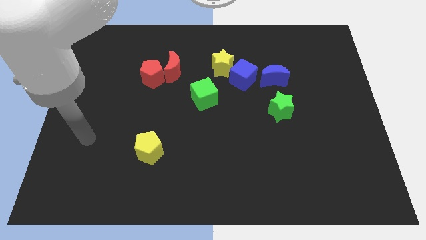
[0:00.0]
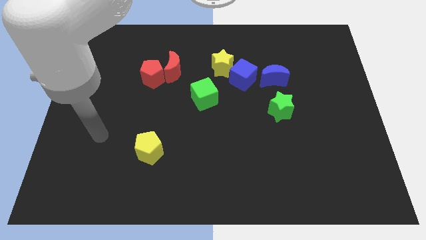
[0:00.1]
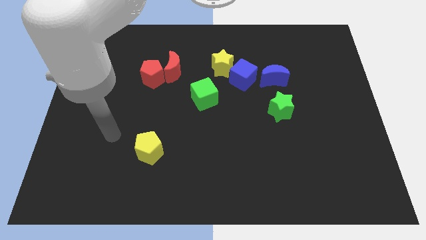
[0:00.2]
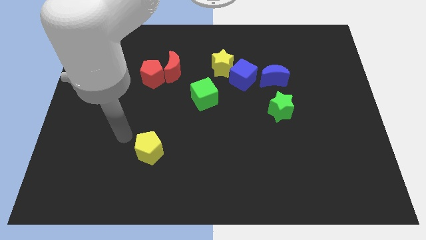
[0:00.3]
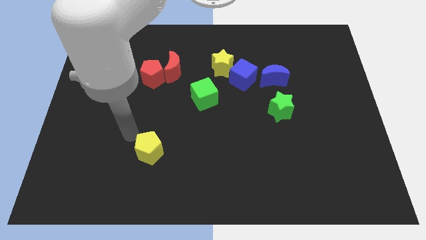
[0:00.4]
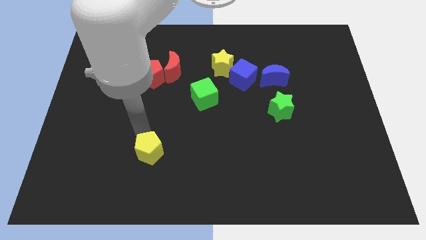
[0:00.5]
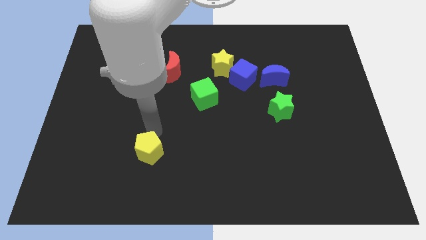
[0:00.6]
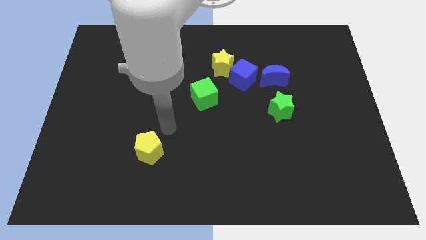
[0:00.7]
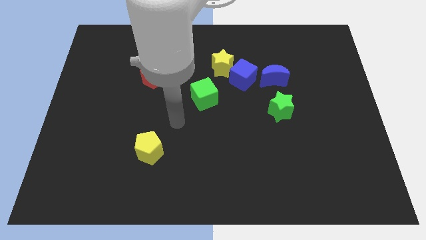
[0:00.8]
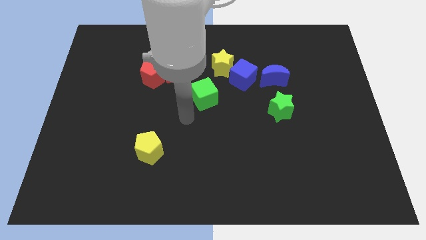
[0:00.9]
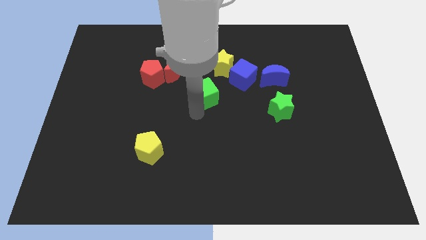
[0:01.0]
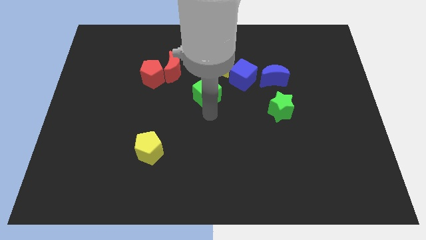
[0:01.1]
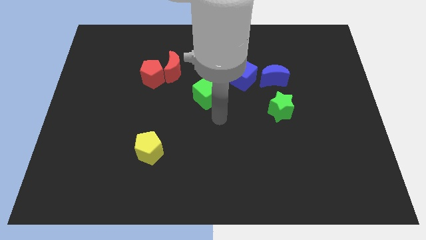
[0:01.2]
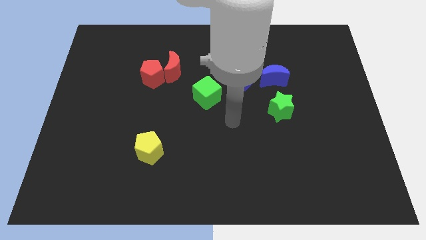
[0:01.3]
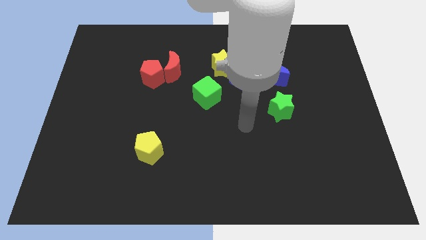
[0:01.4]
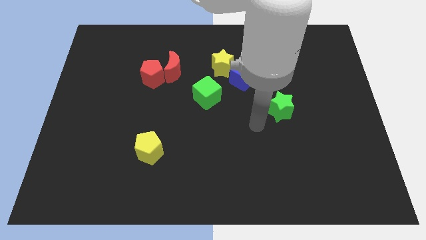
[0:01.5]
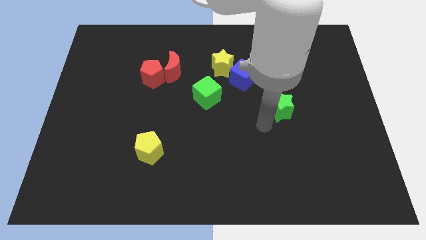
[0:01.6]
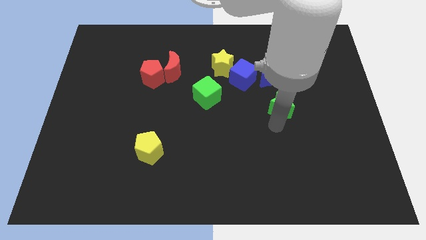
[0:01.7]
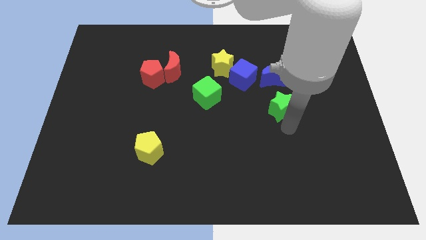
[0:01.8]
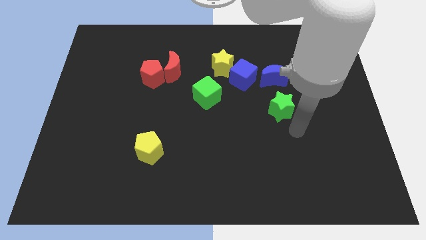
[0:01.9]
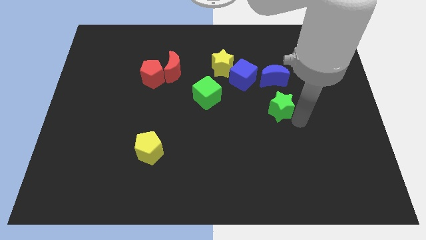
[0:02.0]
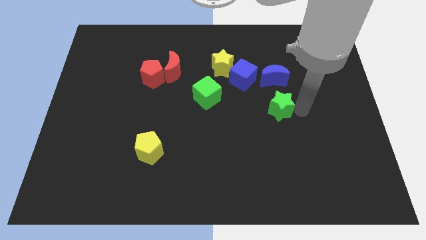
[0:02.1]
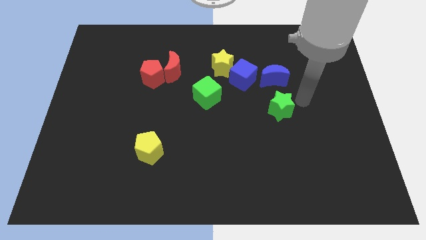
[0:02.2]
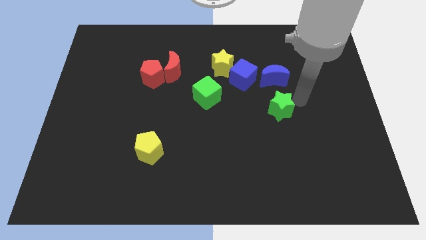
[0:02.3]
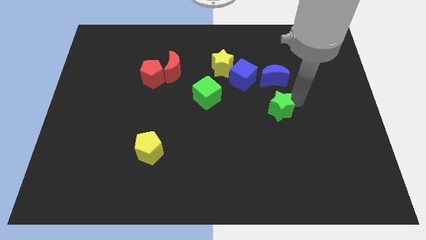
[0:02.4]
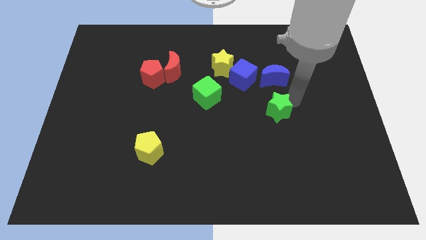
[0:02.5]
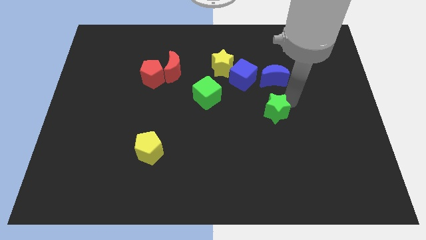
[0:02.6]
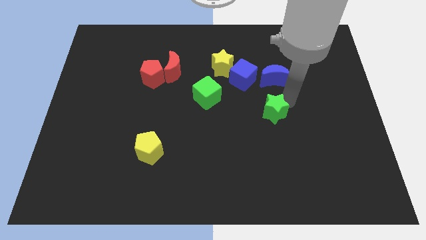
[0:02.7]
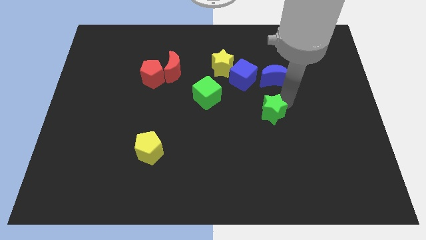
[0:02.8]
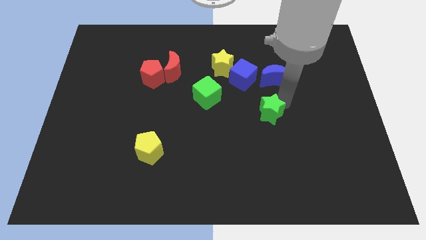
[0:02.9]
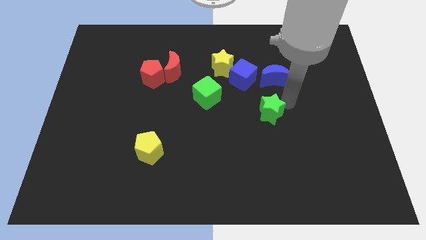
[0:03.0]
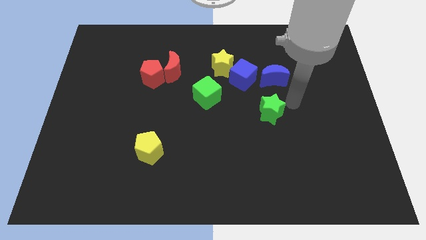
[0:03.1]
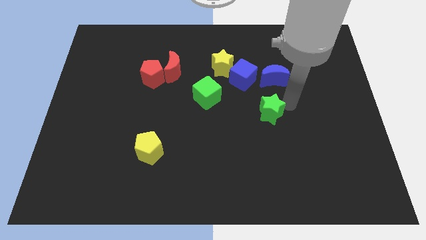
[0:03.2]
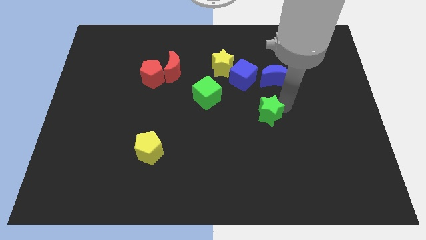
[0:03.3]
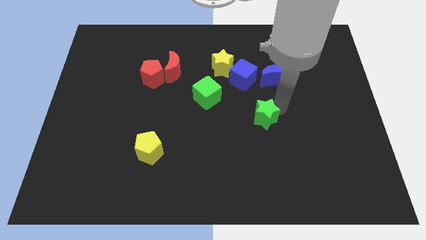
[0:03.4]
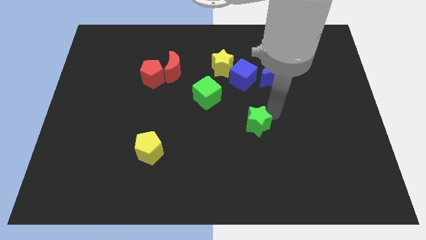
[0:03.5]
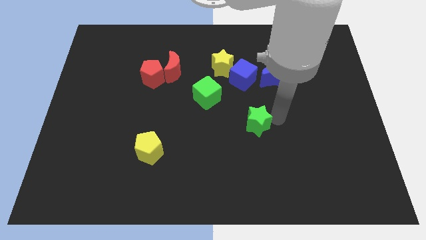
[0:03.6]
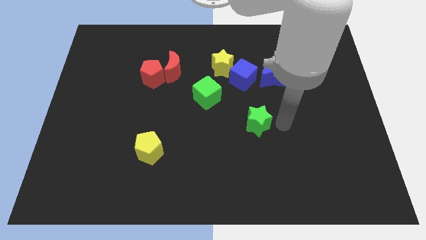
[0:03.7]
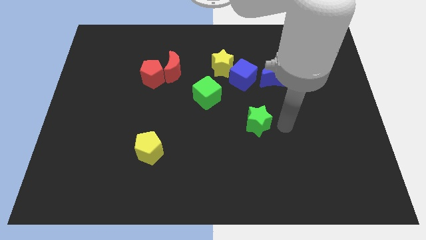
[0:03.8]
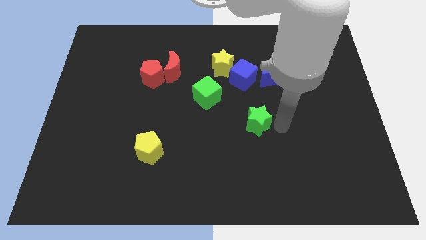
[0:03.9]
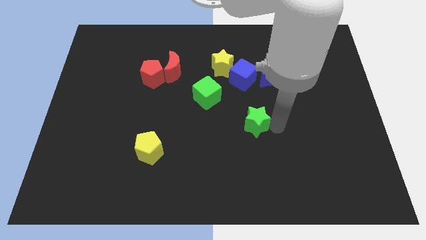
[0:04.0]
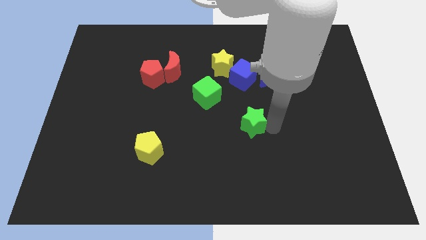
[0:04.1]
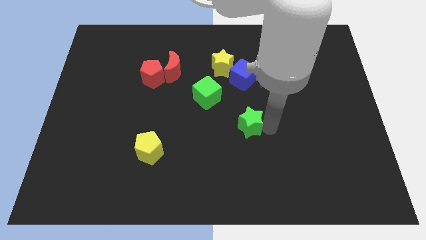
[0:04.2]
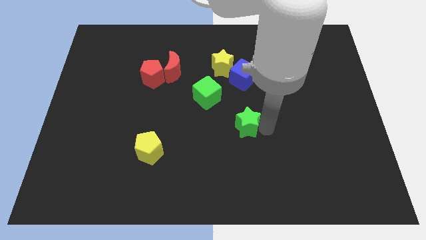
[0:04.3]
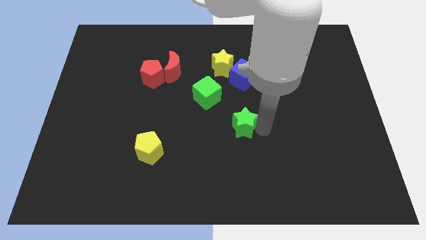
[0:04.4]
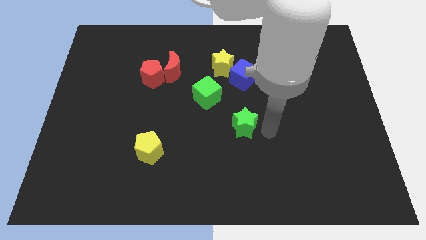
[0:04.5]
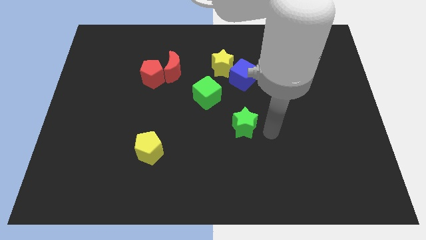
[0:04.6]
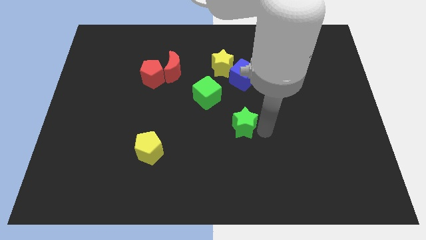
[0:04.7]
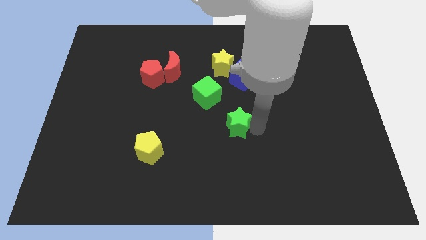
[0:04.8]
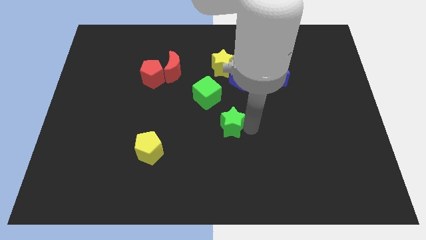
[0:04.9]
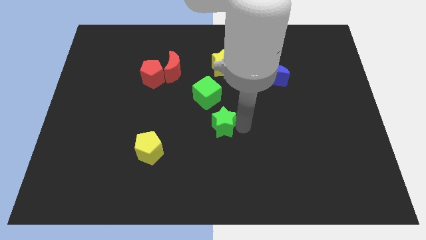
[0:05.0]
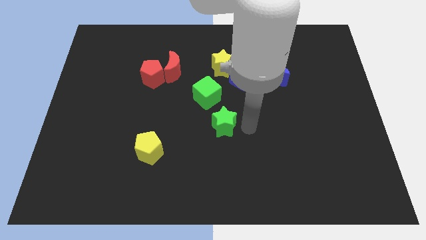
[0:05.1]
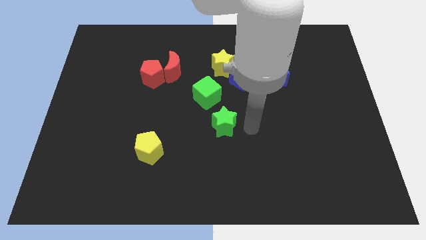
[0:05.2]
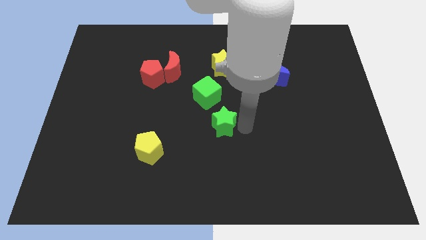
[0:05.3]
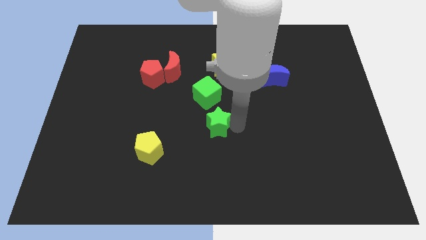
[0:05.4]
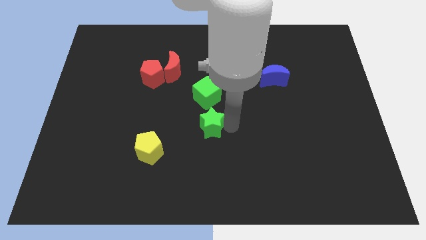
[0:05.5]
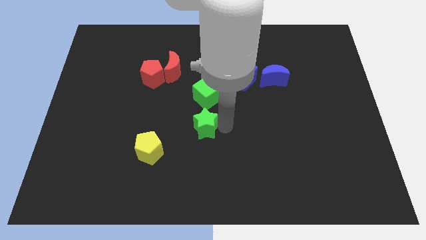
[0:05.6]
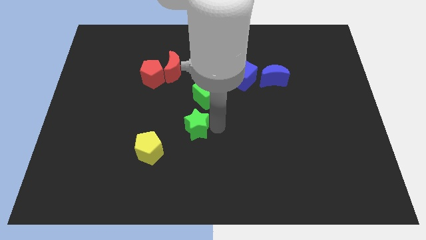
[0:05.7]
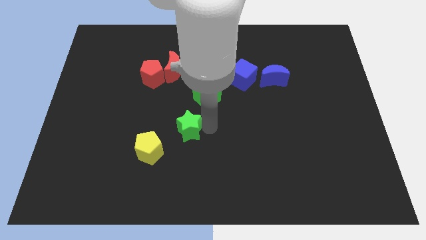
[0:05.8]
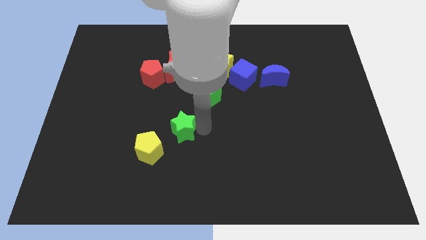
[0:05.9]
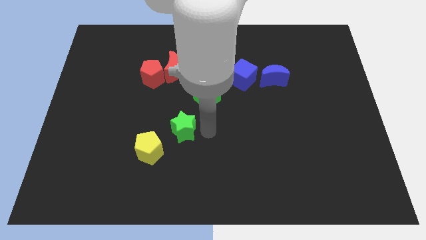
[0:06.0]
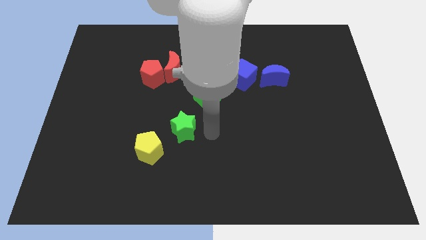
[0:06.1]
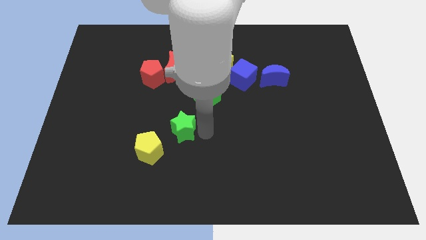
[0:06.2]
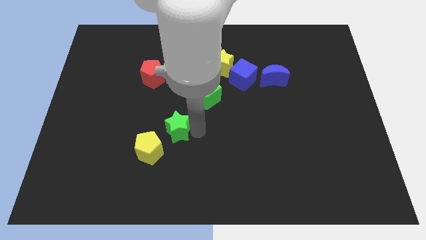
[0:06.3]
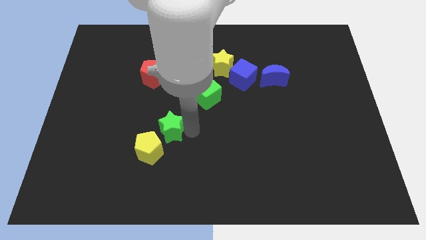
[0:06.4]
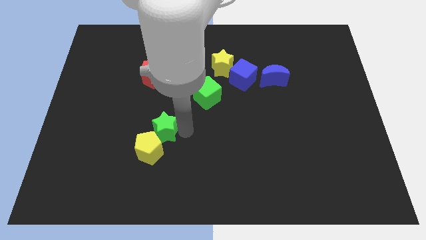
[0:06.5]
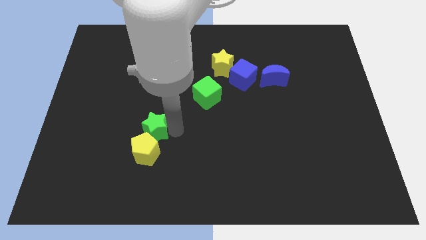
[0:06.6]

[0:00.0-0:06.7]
move the green star to the top left side of the yellow pentagon
